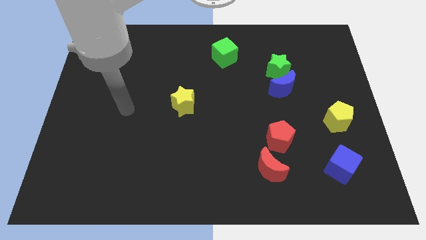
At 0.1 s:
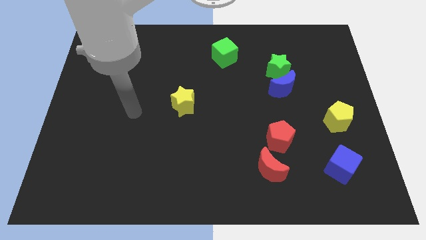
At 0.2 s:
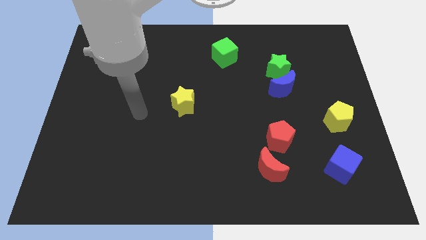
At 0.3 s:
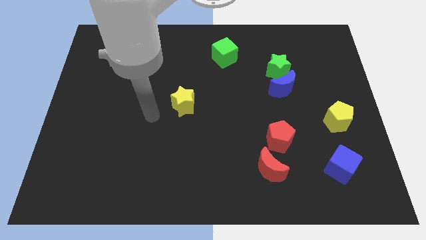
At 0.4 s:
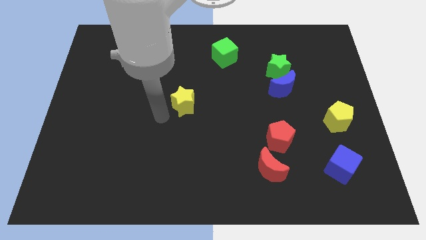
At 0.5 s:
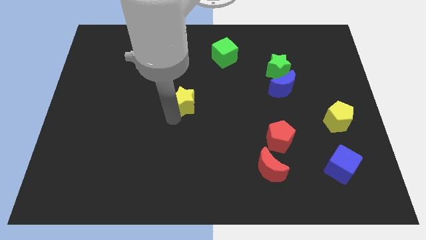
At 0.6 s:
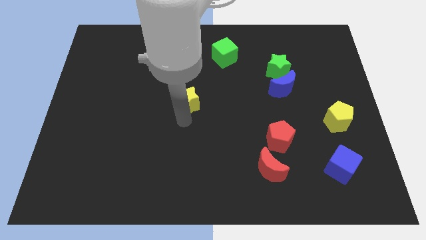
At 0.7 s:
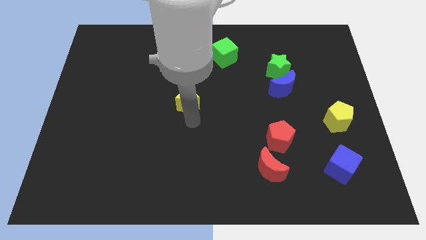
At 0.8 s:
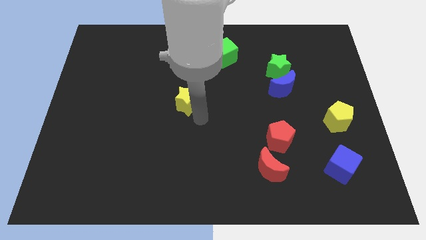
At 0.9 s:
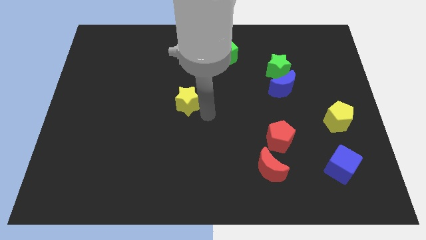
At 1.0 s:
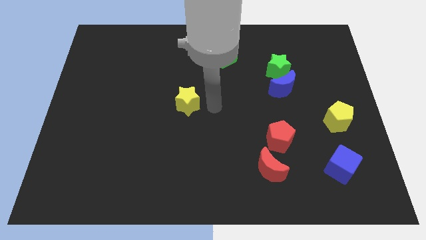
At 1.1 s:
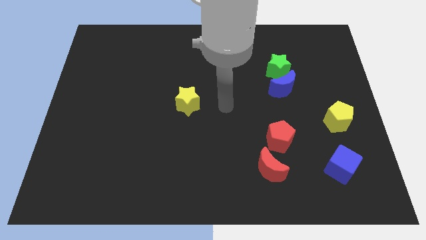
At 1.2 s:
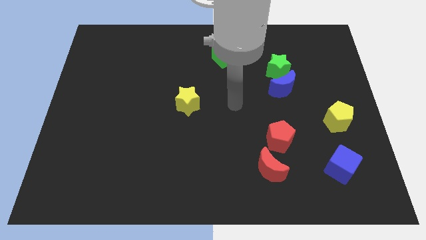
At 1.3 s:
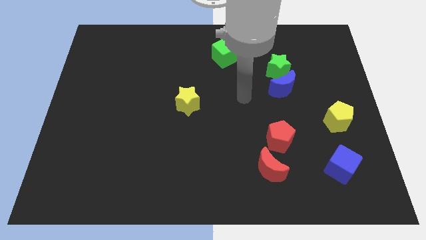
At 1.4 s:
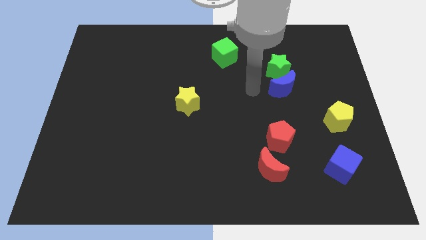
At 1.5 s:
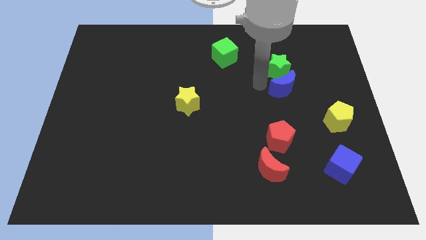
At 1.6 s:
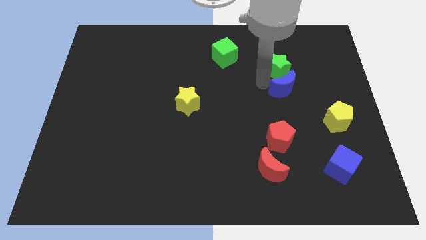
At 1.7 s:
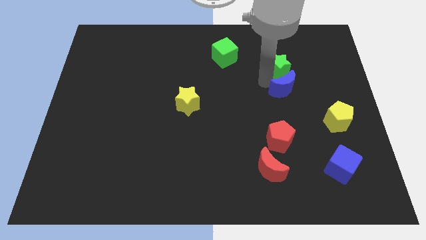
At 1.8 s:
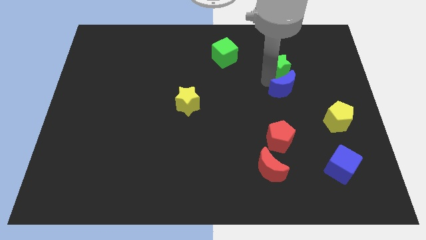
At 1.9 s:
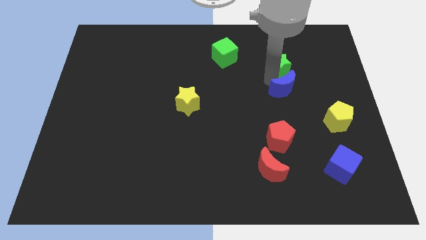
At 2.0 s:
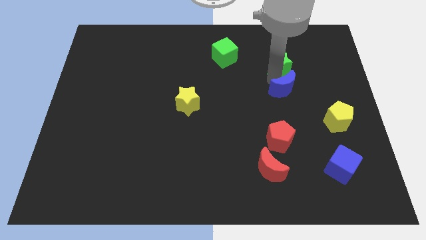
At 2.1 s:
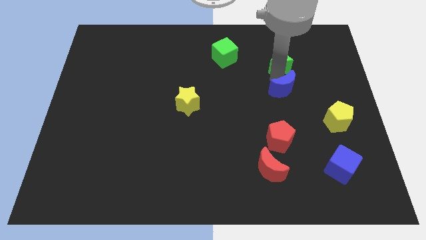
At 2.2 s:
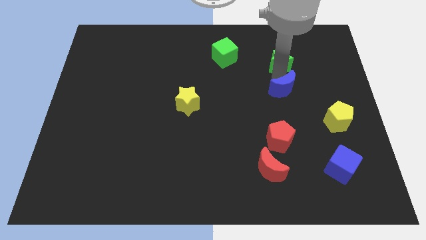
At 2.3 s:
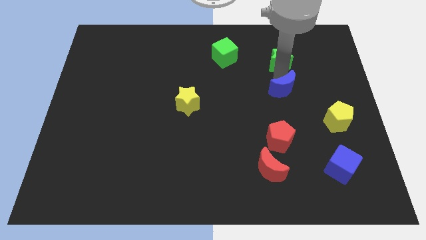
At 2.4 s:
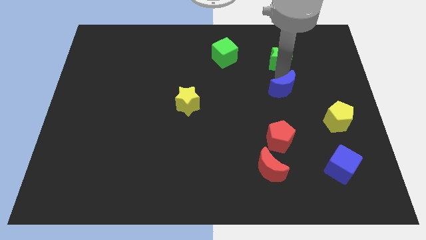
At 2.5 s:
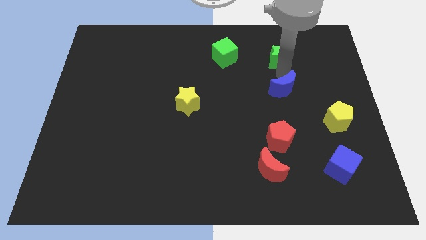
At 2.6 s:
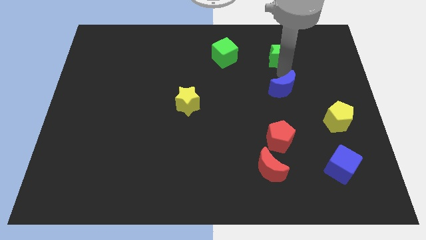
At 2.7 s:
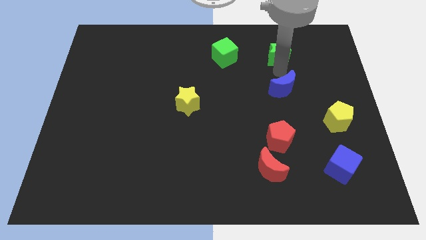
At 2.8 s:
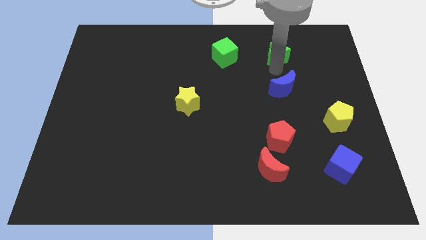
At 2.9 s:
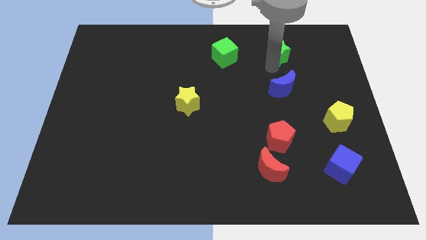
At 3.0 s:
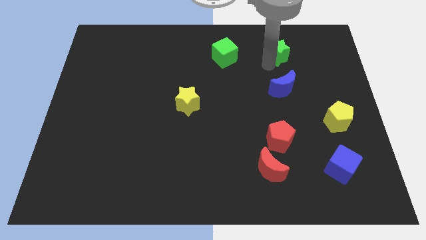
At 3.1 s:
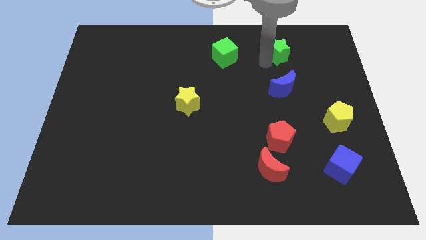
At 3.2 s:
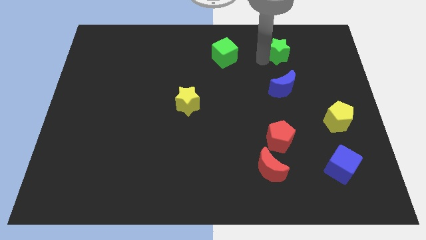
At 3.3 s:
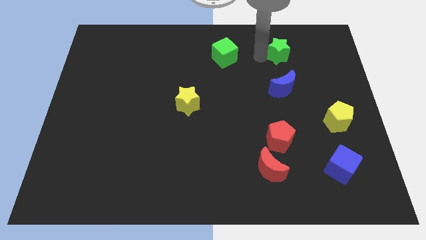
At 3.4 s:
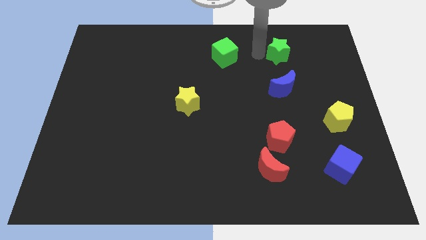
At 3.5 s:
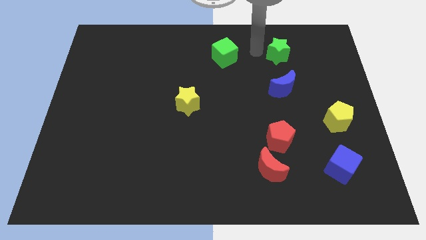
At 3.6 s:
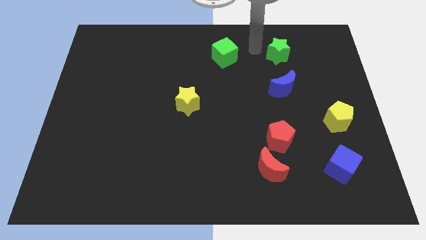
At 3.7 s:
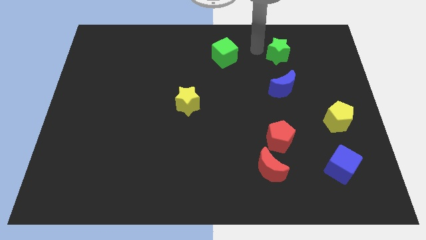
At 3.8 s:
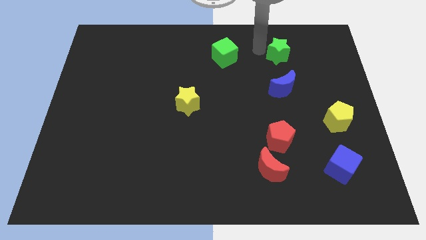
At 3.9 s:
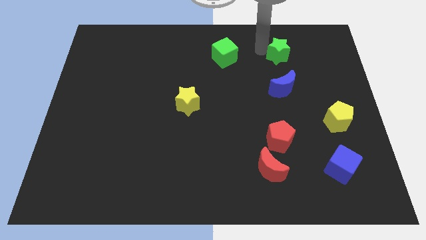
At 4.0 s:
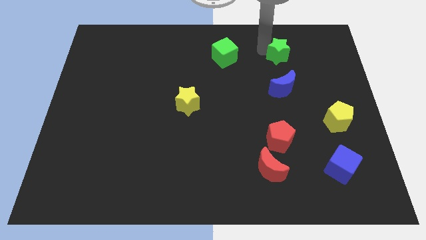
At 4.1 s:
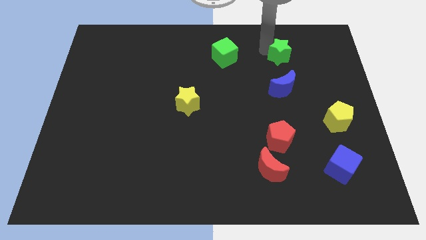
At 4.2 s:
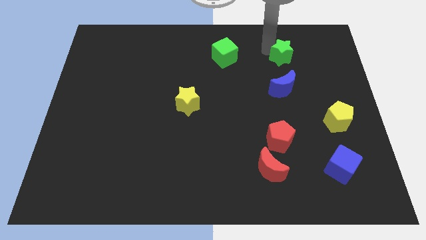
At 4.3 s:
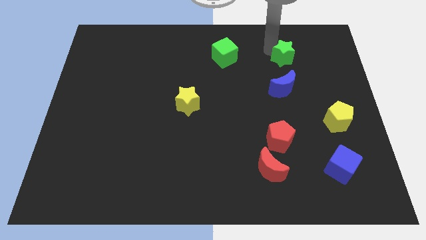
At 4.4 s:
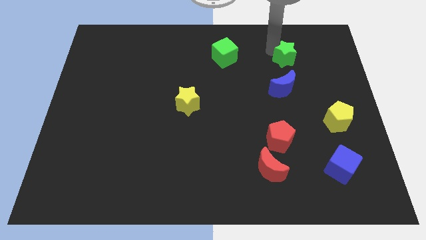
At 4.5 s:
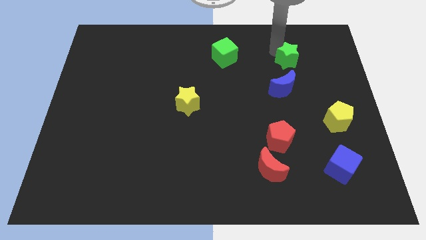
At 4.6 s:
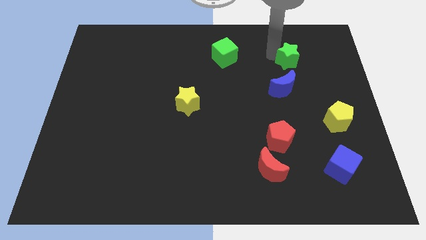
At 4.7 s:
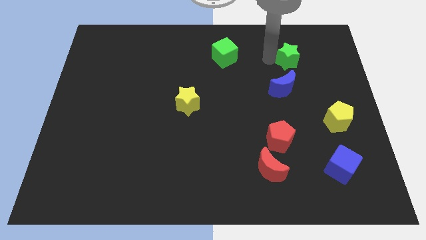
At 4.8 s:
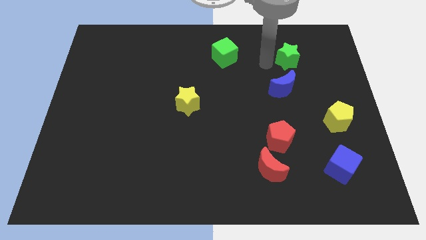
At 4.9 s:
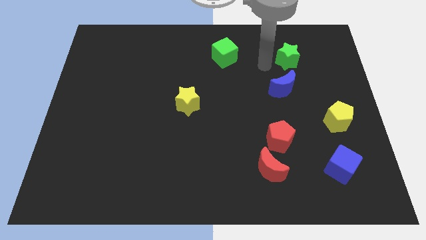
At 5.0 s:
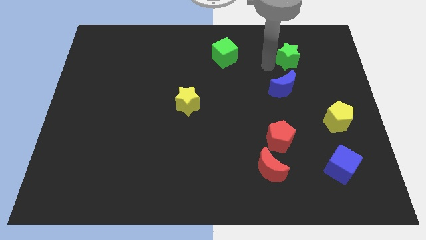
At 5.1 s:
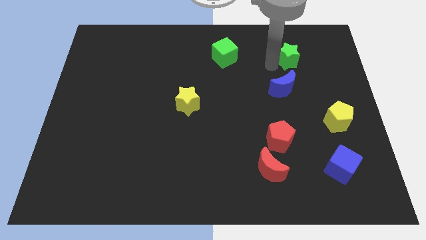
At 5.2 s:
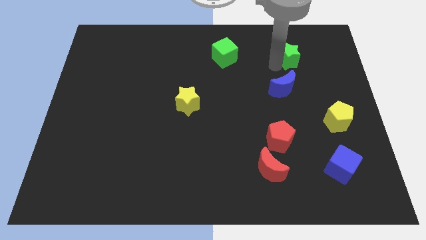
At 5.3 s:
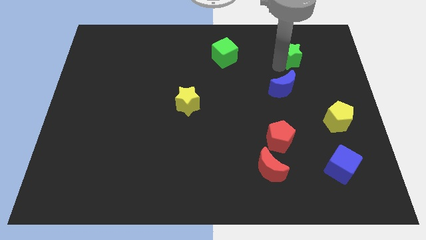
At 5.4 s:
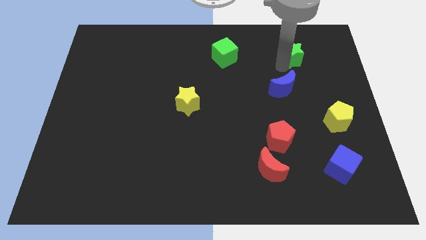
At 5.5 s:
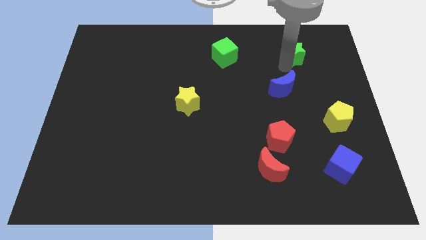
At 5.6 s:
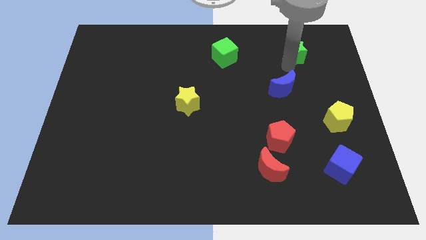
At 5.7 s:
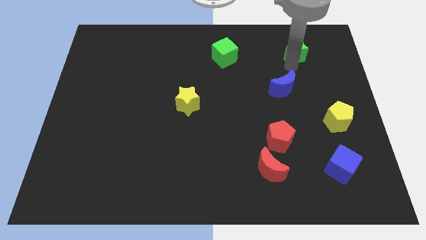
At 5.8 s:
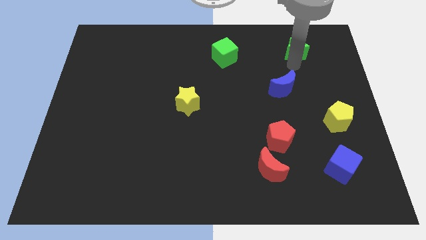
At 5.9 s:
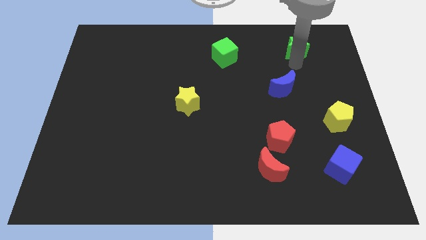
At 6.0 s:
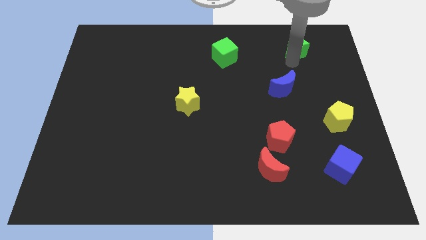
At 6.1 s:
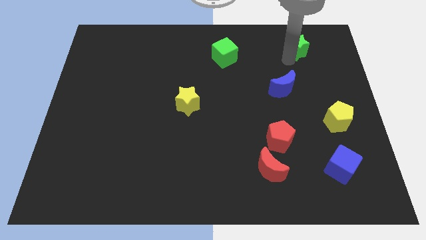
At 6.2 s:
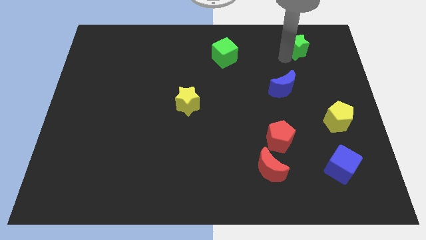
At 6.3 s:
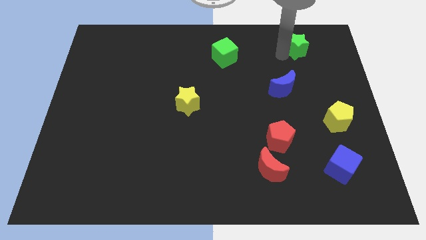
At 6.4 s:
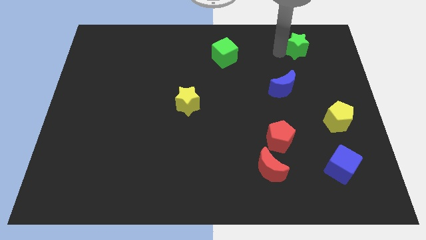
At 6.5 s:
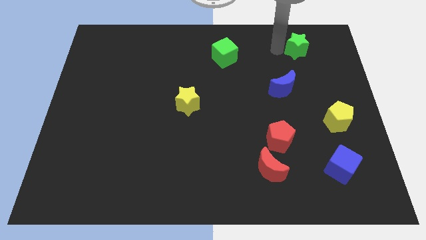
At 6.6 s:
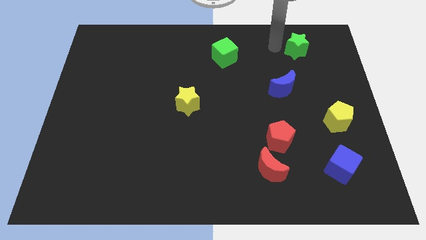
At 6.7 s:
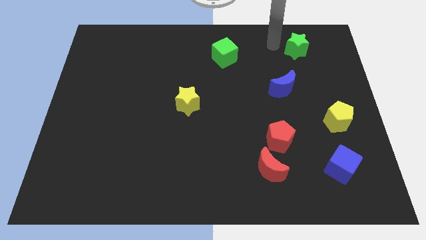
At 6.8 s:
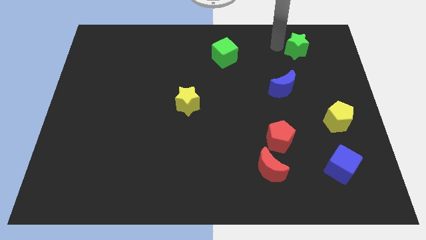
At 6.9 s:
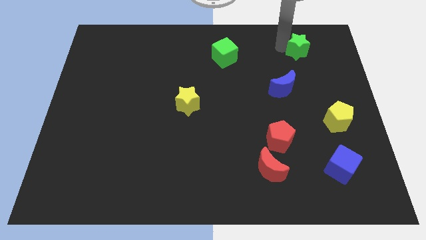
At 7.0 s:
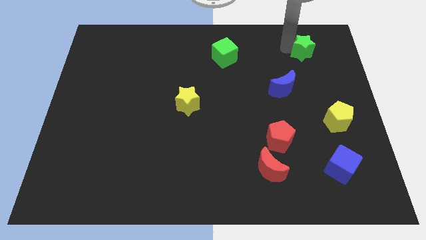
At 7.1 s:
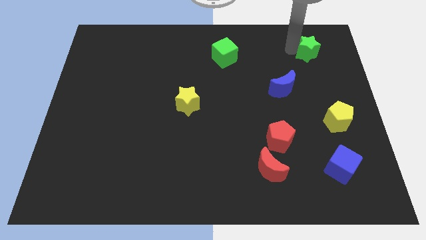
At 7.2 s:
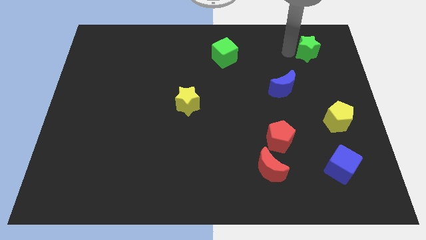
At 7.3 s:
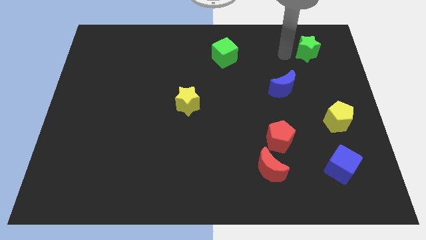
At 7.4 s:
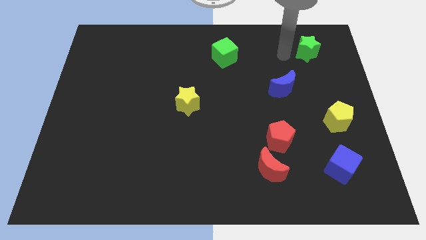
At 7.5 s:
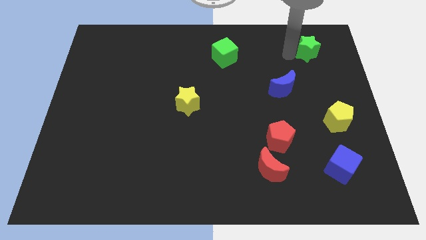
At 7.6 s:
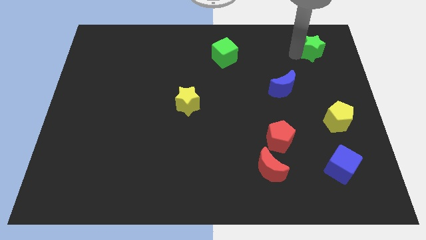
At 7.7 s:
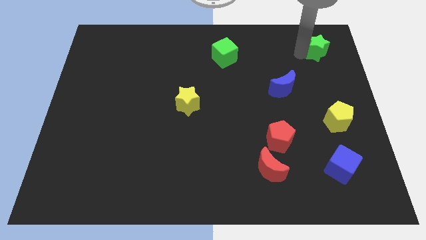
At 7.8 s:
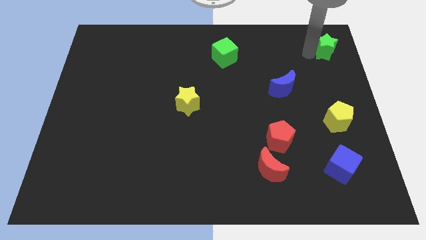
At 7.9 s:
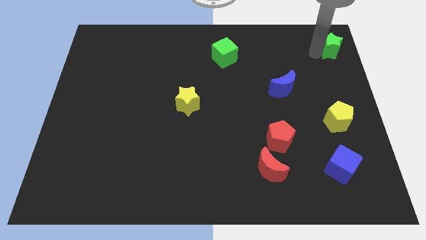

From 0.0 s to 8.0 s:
put the green star to the top right of the board
